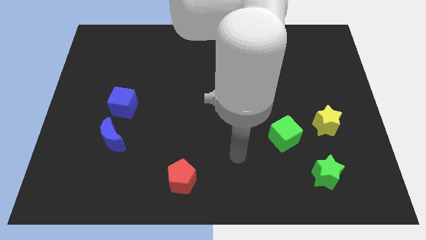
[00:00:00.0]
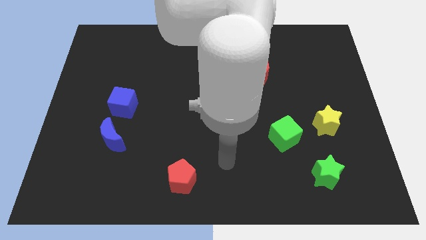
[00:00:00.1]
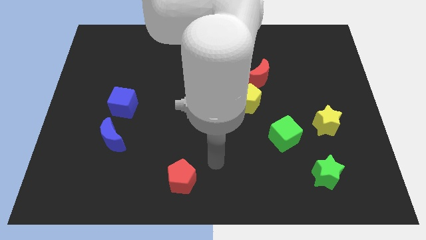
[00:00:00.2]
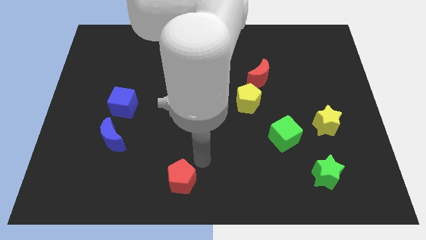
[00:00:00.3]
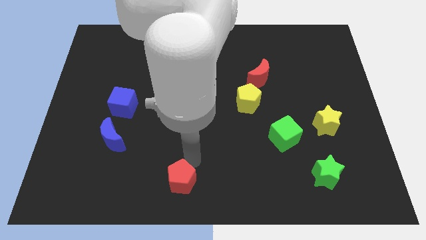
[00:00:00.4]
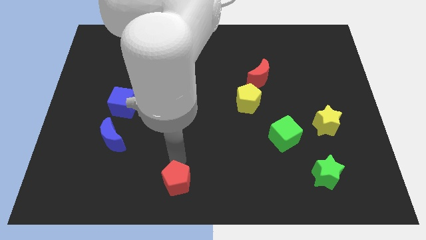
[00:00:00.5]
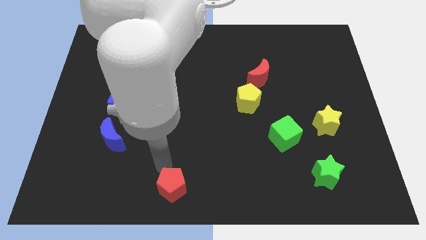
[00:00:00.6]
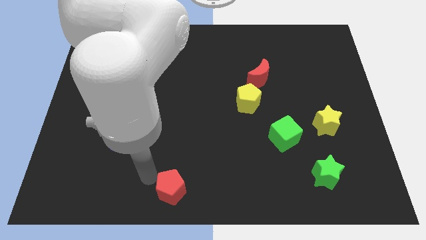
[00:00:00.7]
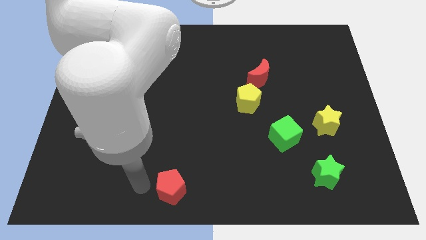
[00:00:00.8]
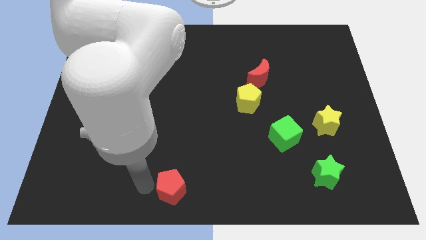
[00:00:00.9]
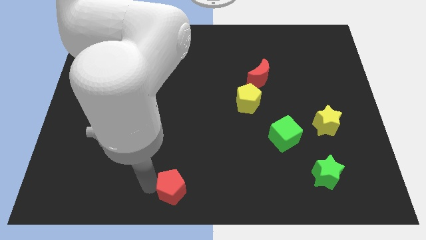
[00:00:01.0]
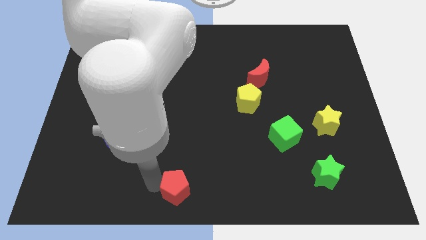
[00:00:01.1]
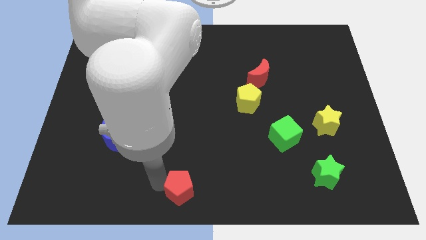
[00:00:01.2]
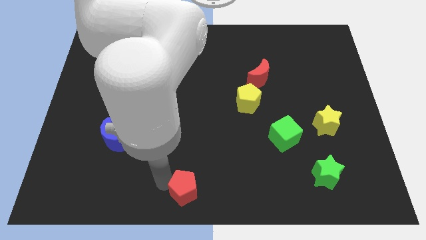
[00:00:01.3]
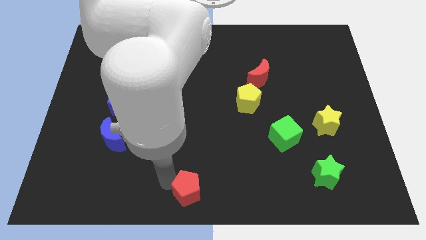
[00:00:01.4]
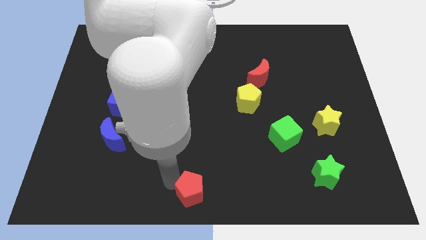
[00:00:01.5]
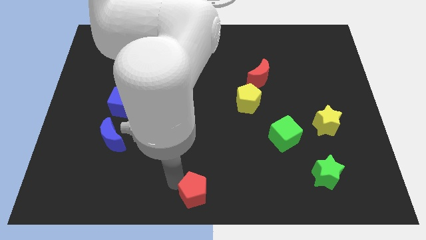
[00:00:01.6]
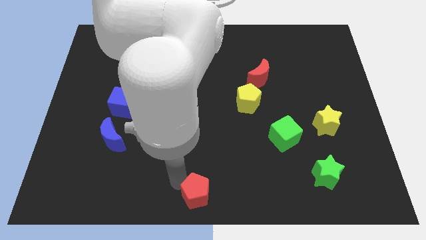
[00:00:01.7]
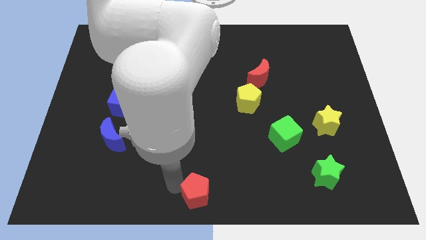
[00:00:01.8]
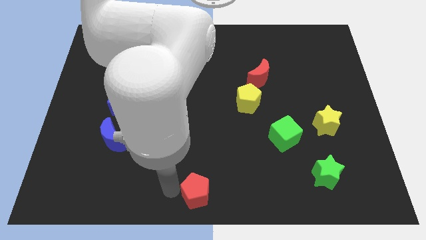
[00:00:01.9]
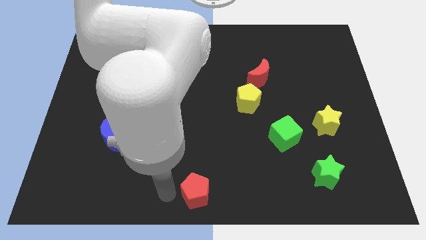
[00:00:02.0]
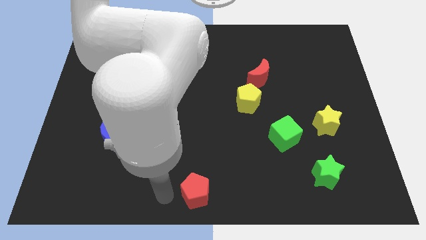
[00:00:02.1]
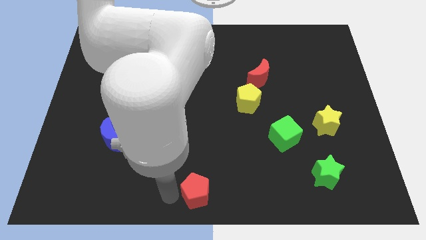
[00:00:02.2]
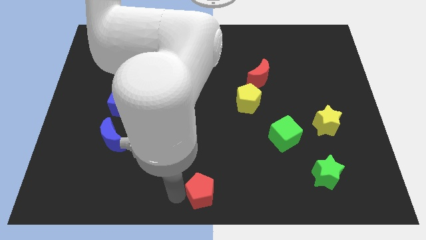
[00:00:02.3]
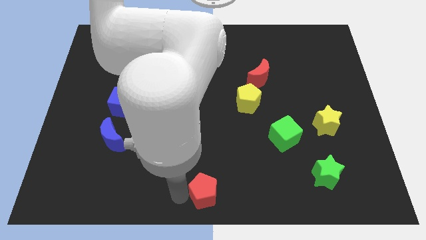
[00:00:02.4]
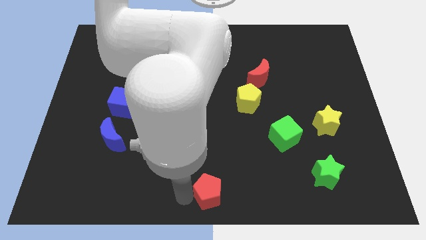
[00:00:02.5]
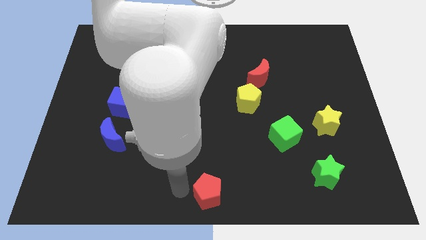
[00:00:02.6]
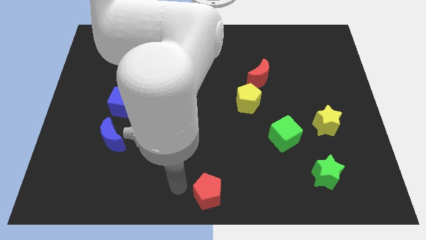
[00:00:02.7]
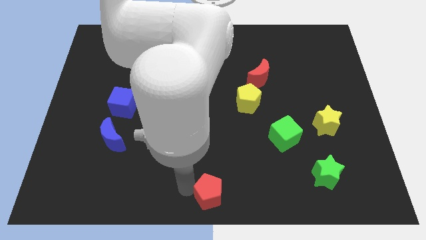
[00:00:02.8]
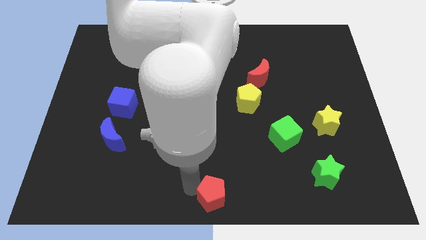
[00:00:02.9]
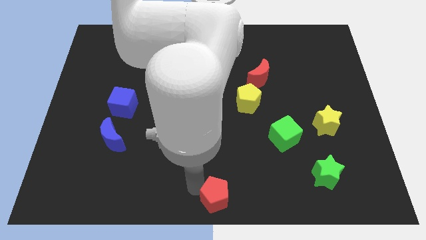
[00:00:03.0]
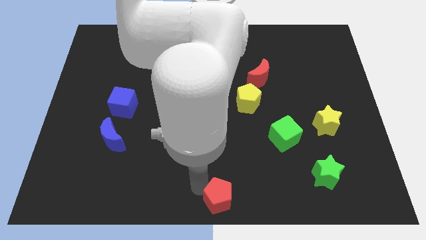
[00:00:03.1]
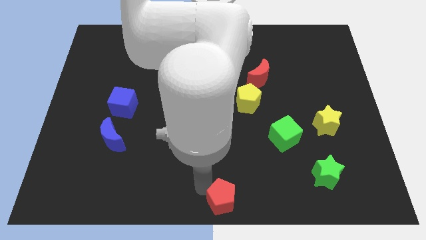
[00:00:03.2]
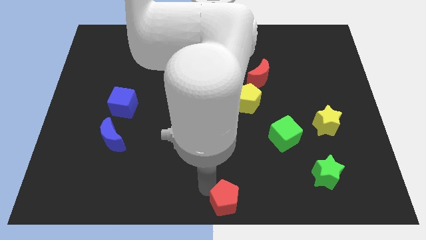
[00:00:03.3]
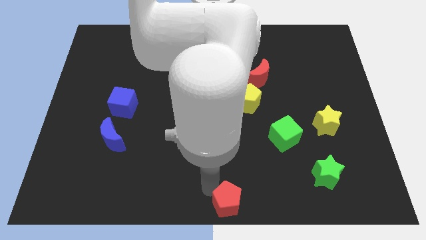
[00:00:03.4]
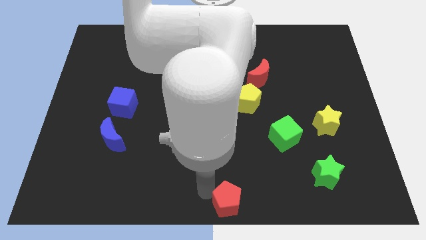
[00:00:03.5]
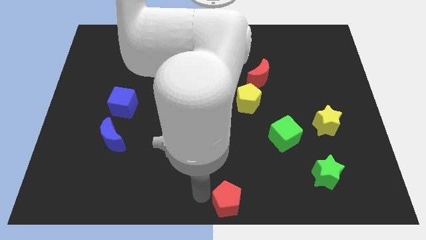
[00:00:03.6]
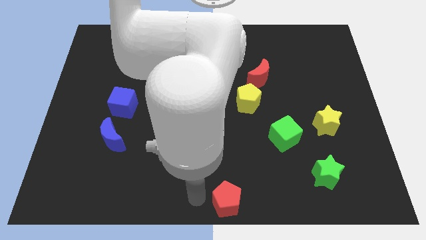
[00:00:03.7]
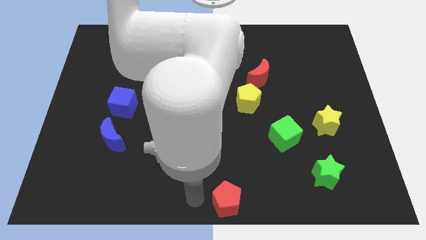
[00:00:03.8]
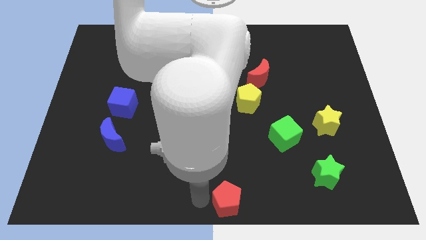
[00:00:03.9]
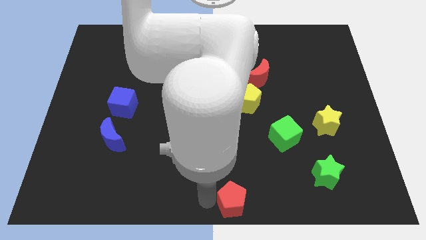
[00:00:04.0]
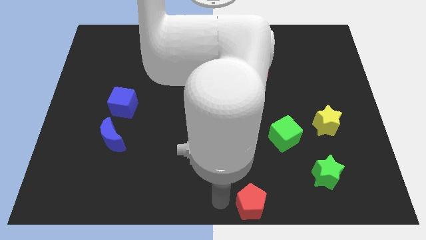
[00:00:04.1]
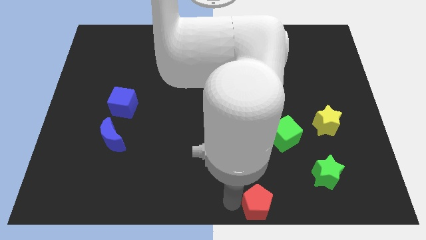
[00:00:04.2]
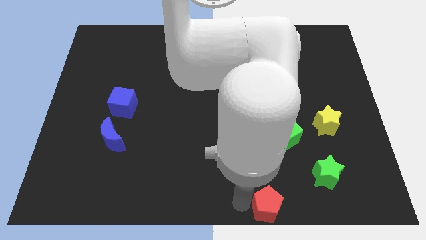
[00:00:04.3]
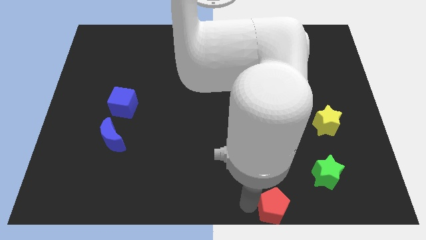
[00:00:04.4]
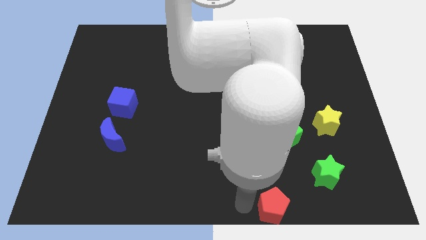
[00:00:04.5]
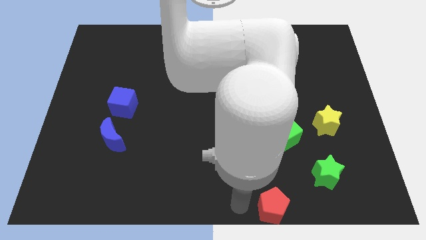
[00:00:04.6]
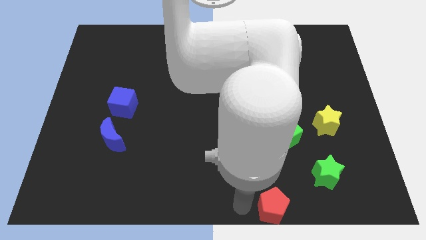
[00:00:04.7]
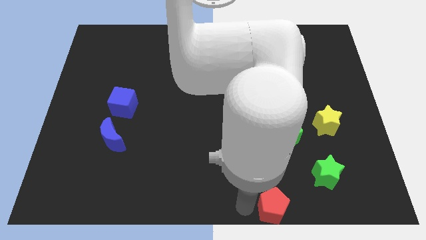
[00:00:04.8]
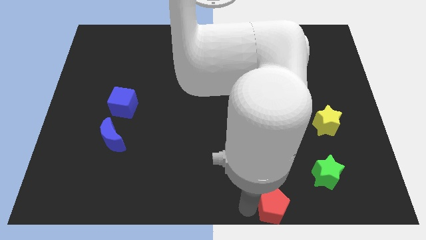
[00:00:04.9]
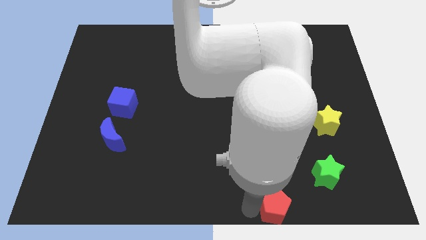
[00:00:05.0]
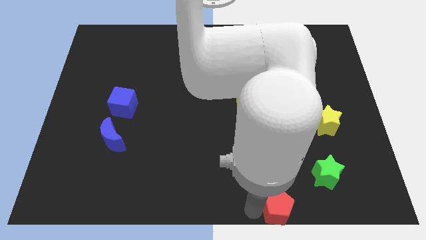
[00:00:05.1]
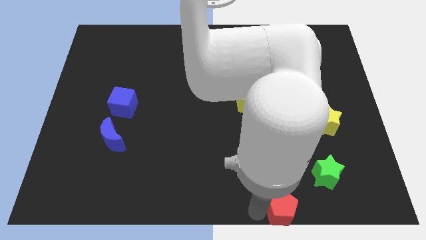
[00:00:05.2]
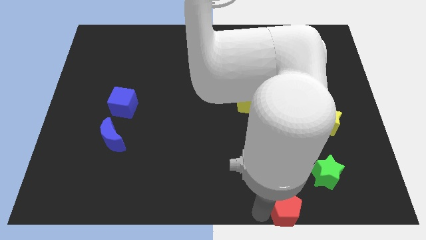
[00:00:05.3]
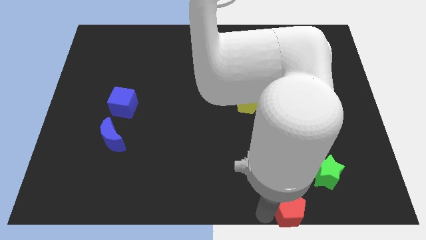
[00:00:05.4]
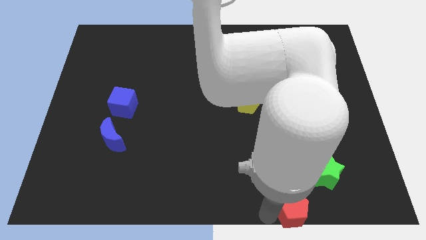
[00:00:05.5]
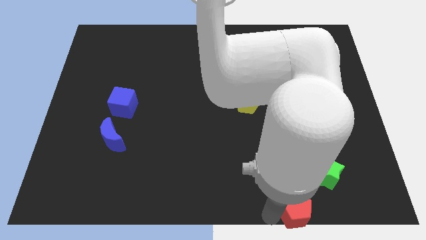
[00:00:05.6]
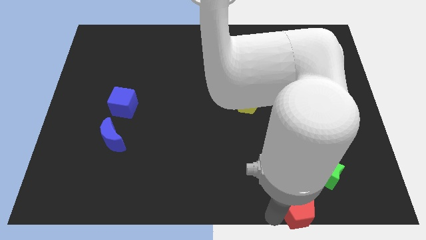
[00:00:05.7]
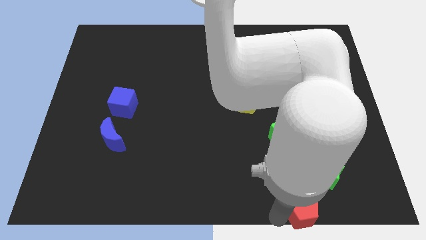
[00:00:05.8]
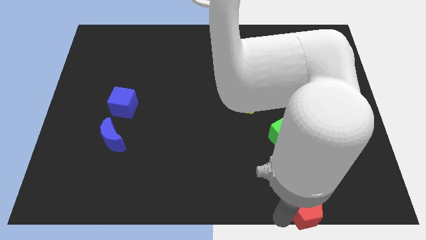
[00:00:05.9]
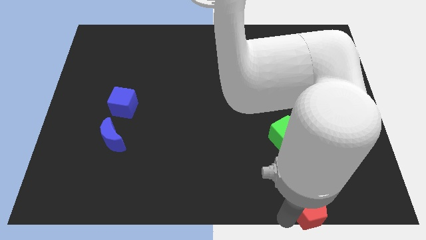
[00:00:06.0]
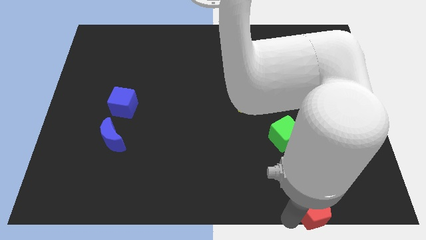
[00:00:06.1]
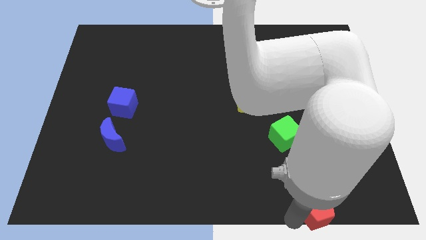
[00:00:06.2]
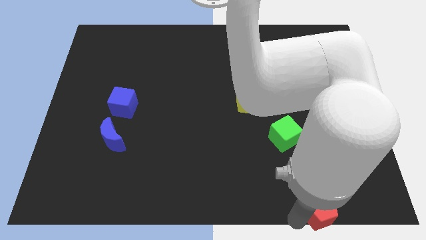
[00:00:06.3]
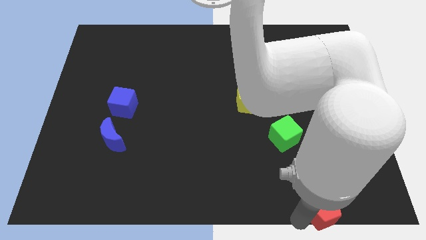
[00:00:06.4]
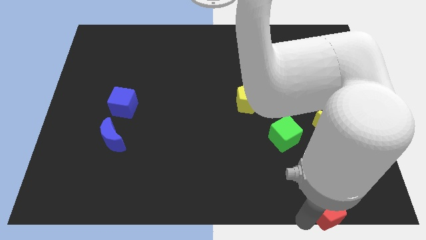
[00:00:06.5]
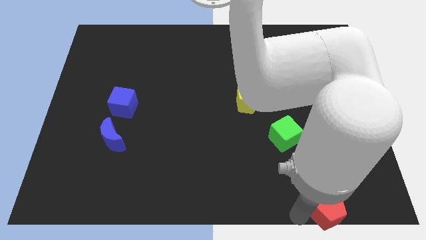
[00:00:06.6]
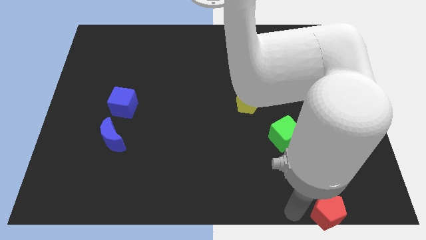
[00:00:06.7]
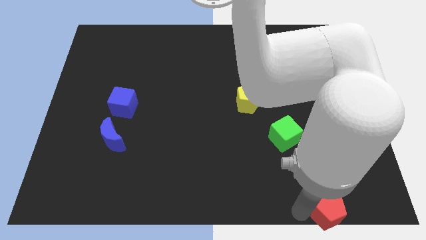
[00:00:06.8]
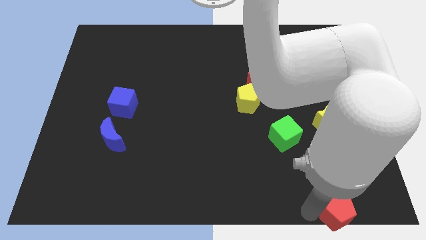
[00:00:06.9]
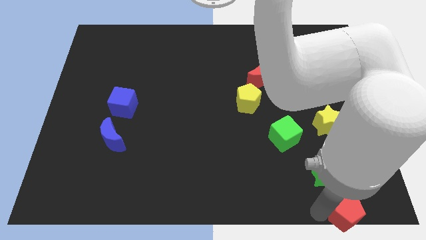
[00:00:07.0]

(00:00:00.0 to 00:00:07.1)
push the red pentagon to the bottom right

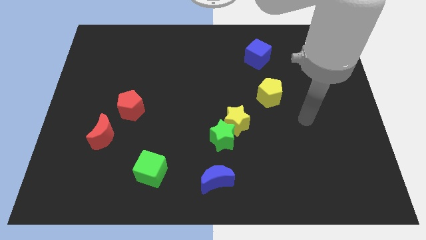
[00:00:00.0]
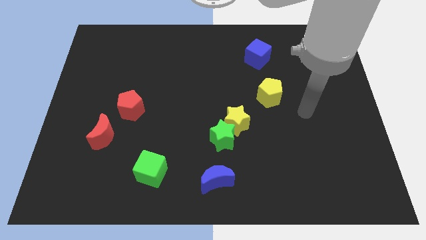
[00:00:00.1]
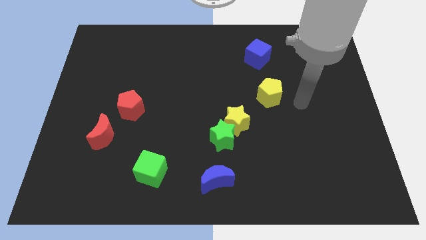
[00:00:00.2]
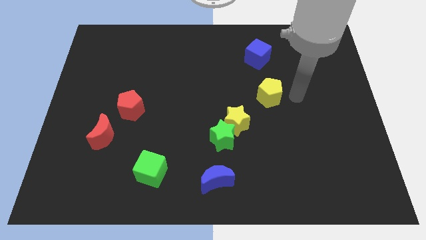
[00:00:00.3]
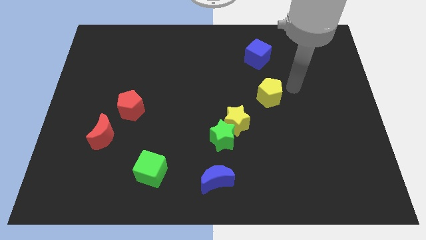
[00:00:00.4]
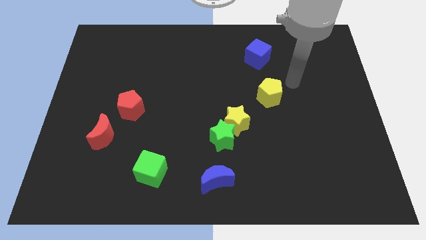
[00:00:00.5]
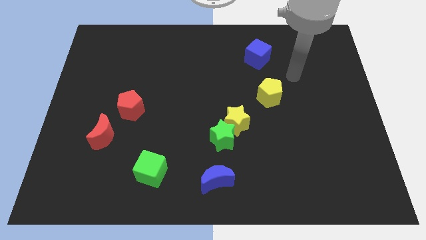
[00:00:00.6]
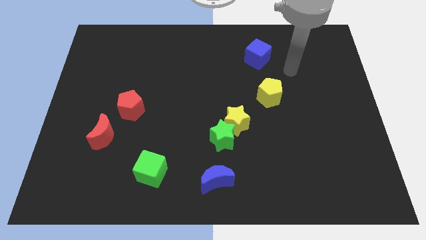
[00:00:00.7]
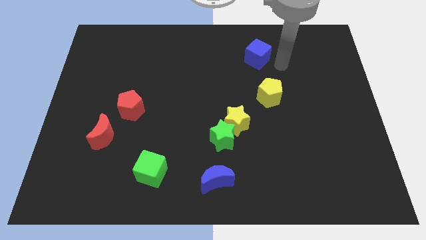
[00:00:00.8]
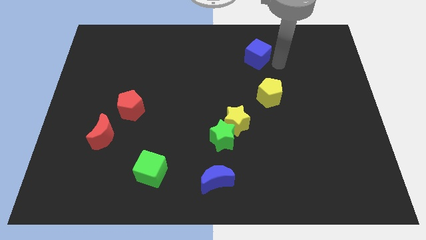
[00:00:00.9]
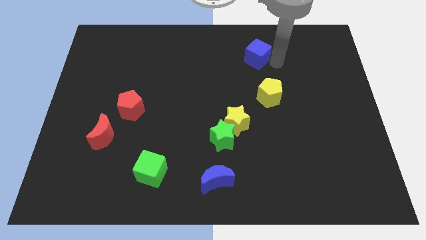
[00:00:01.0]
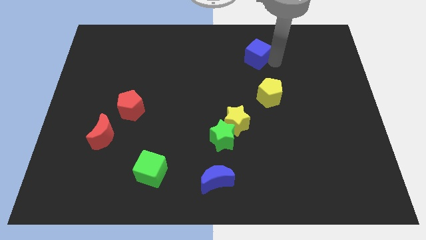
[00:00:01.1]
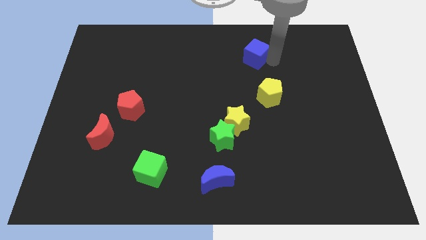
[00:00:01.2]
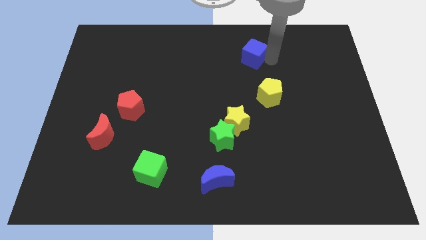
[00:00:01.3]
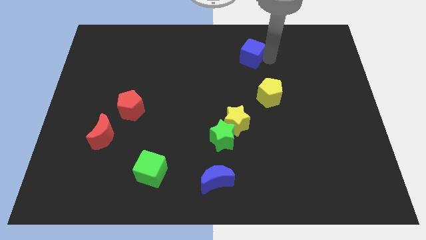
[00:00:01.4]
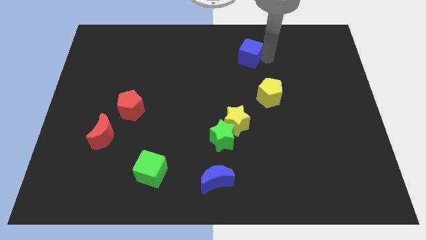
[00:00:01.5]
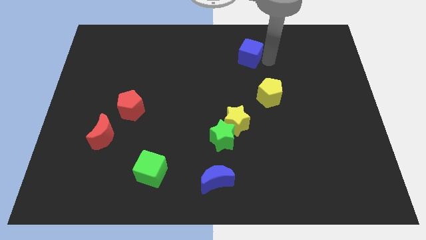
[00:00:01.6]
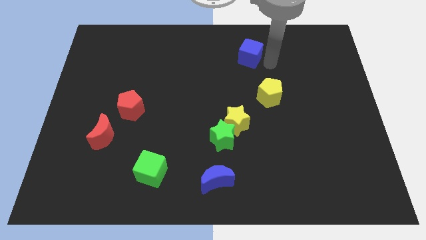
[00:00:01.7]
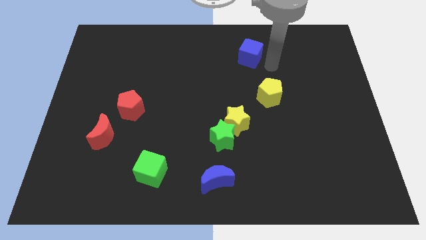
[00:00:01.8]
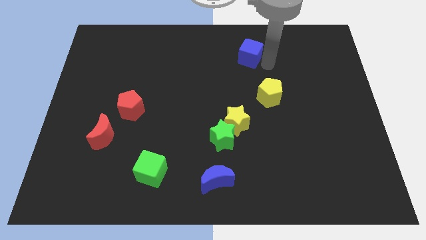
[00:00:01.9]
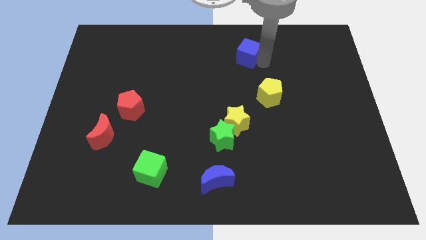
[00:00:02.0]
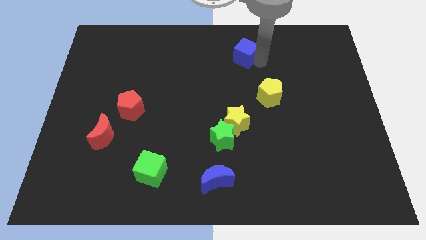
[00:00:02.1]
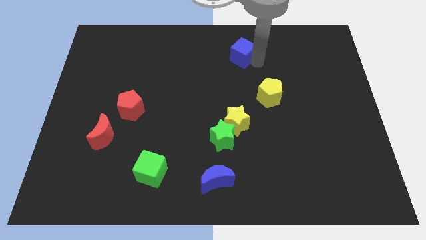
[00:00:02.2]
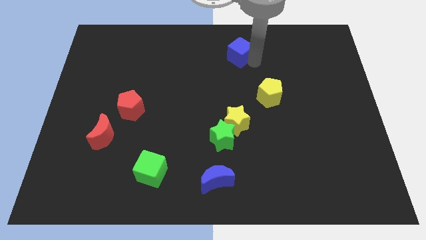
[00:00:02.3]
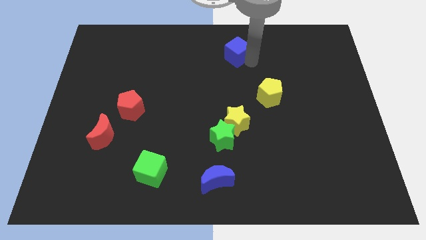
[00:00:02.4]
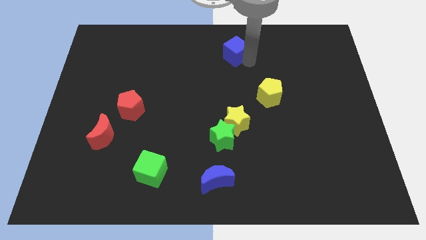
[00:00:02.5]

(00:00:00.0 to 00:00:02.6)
move the blue cube to the top side
